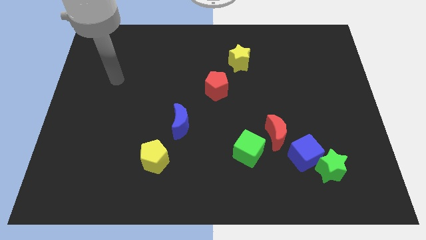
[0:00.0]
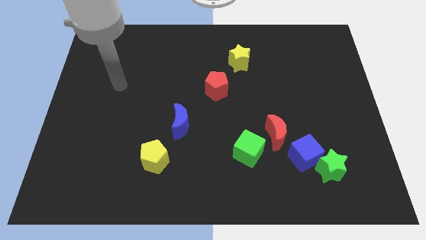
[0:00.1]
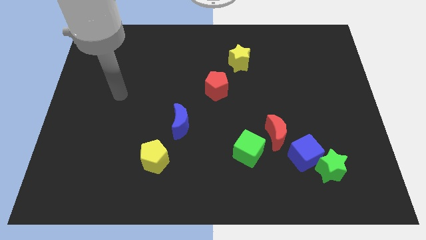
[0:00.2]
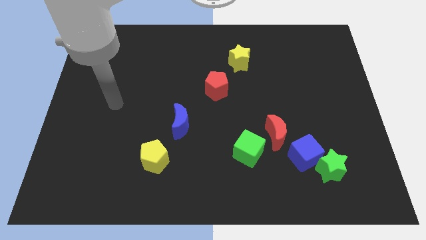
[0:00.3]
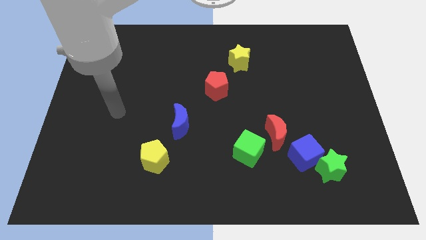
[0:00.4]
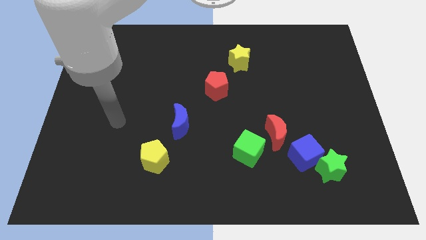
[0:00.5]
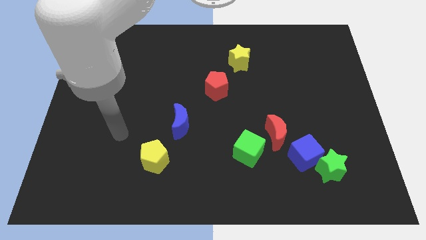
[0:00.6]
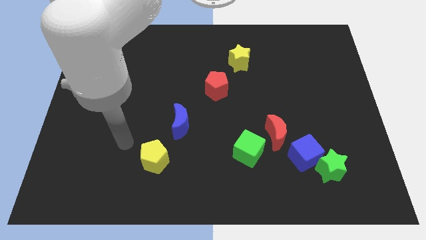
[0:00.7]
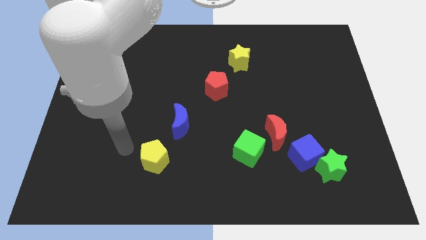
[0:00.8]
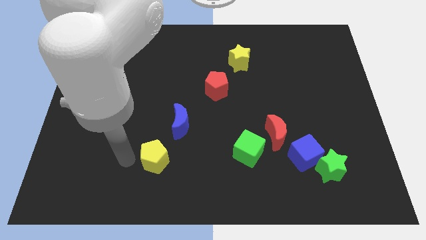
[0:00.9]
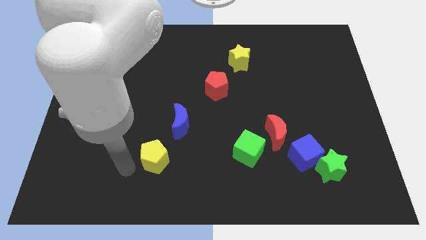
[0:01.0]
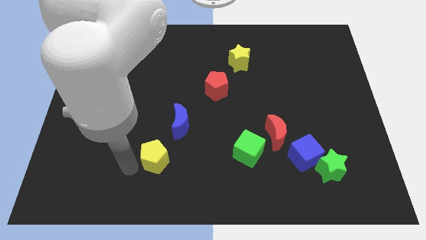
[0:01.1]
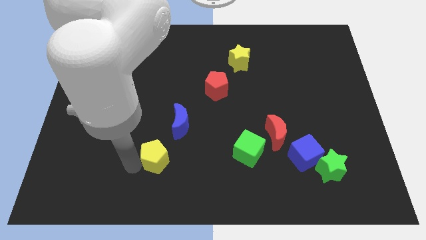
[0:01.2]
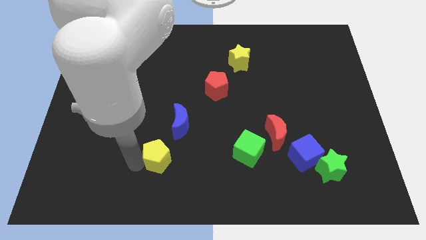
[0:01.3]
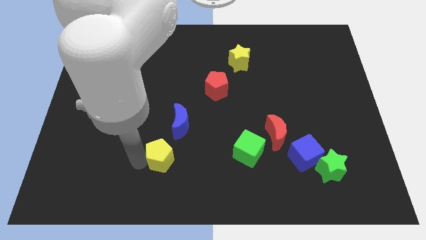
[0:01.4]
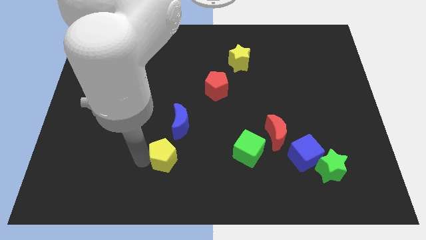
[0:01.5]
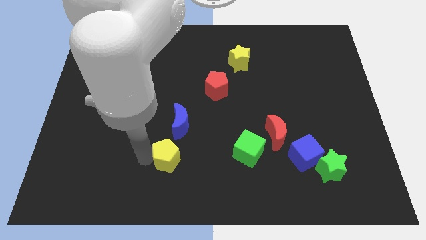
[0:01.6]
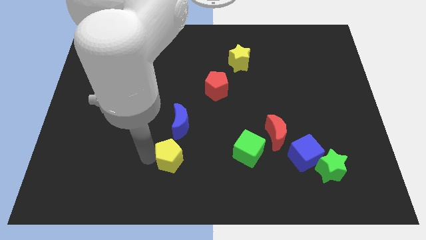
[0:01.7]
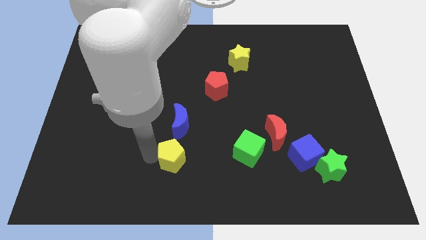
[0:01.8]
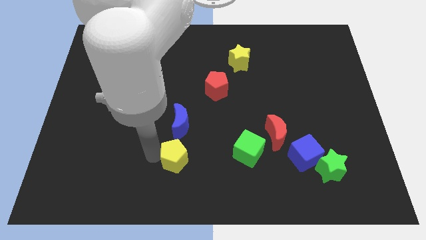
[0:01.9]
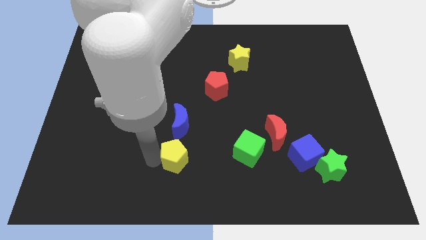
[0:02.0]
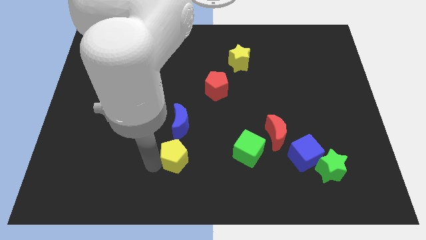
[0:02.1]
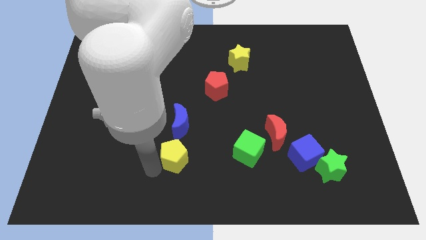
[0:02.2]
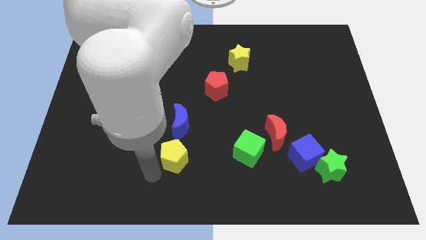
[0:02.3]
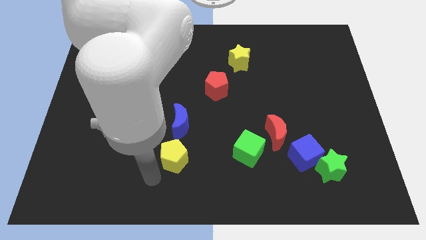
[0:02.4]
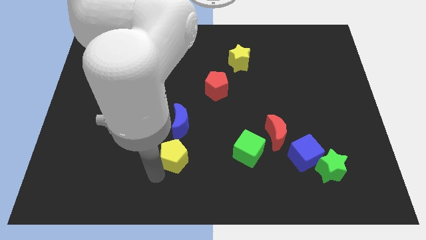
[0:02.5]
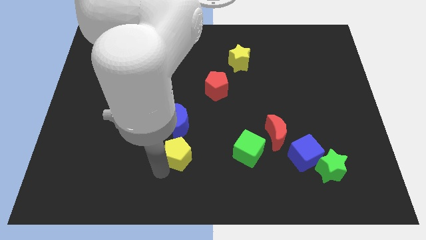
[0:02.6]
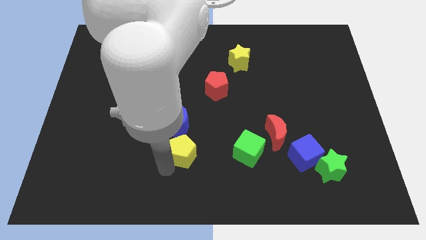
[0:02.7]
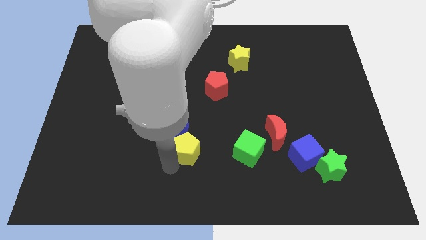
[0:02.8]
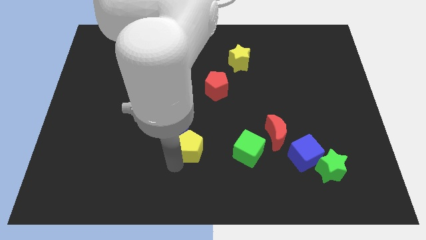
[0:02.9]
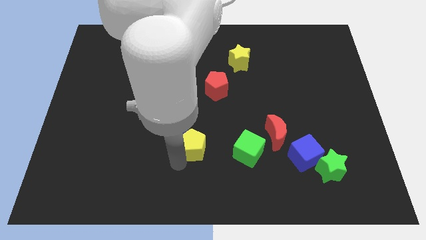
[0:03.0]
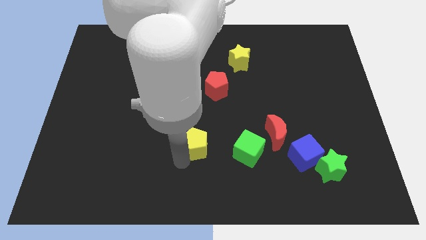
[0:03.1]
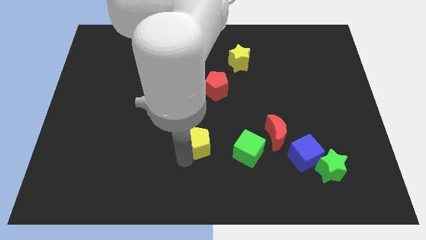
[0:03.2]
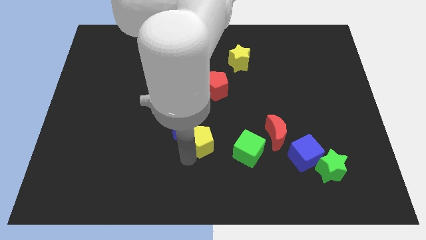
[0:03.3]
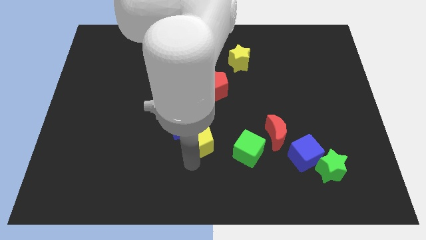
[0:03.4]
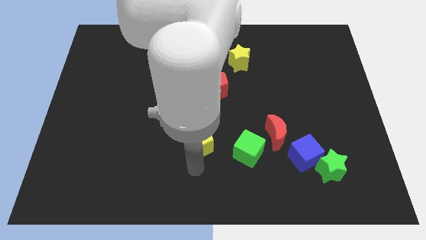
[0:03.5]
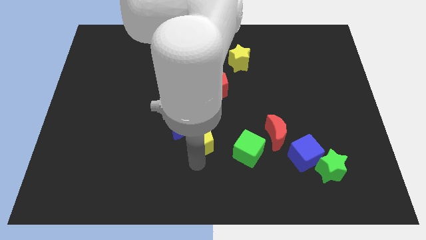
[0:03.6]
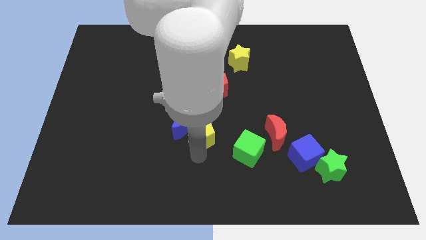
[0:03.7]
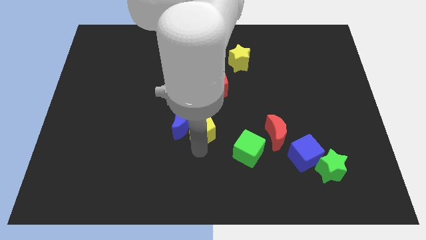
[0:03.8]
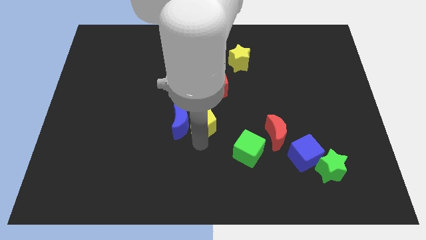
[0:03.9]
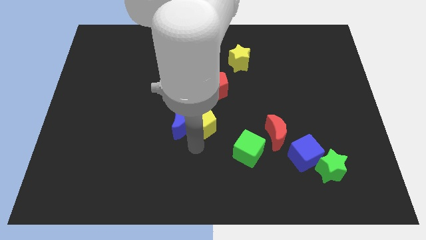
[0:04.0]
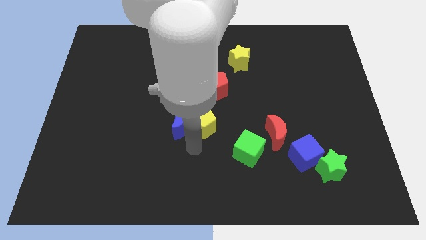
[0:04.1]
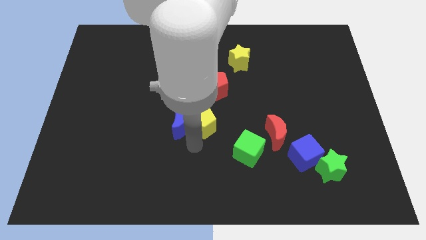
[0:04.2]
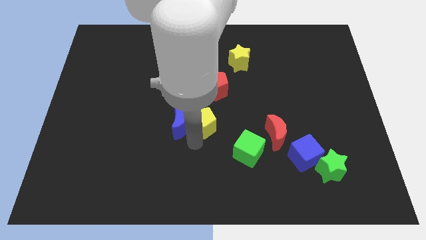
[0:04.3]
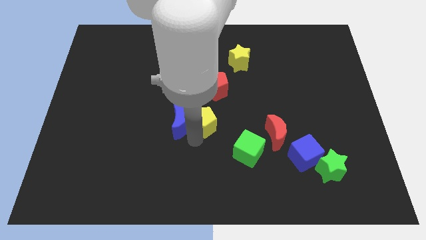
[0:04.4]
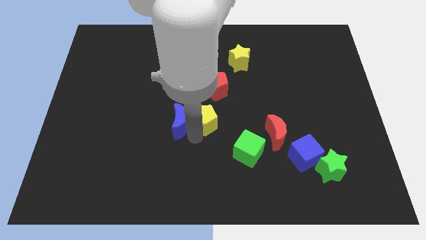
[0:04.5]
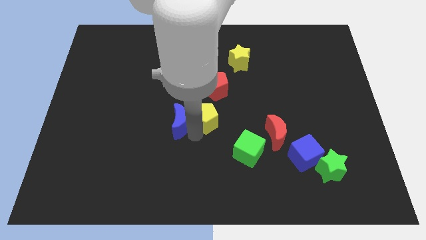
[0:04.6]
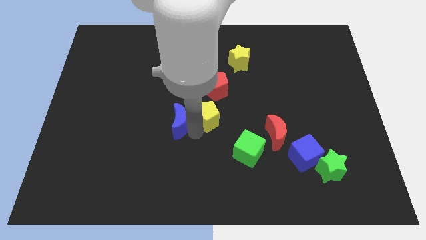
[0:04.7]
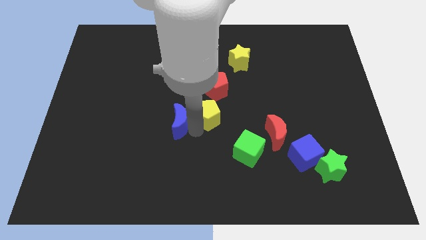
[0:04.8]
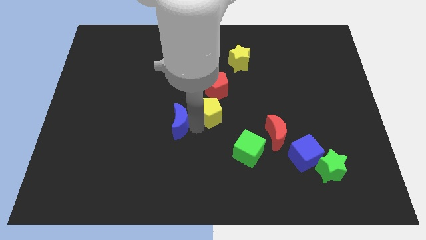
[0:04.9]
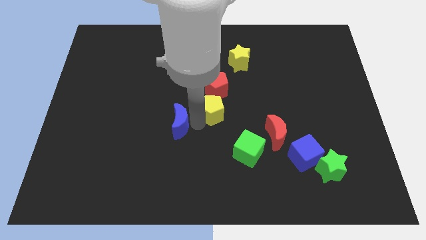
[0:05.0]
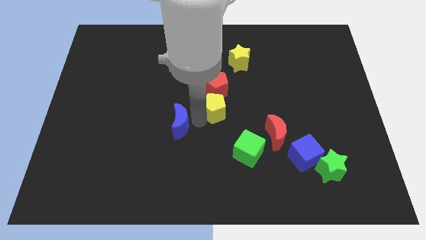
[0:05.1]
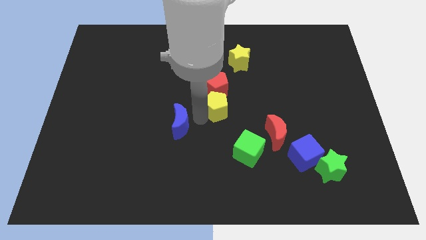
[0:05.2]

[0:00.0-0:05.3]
push the yellow pentagon next to the red pentagon

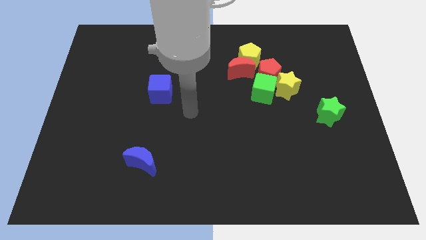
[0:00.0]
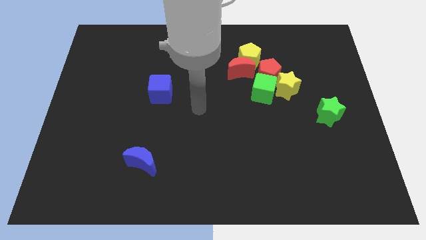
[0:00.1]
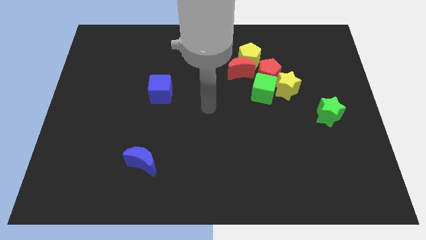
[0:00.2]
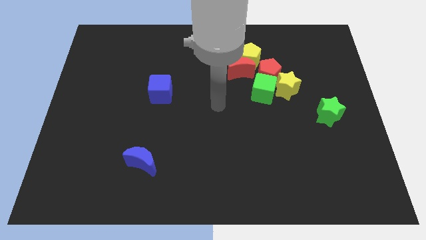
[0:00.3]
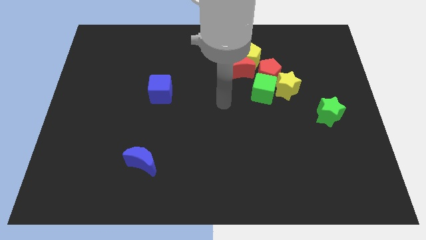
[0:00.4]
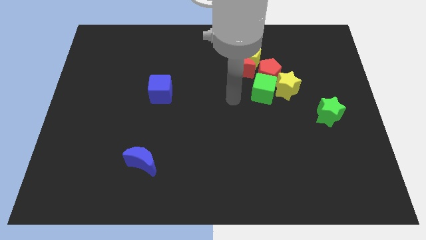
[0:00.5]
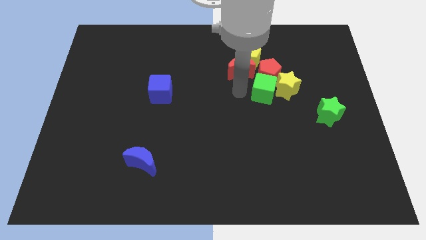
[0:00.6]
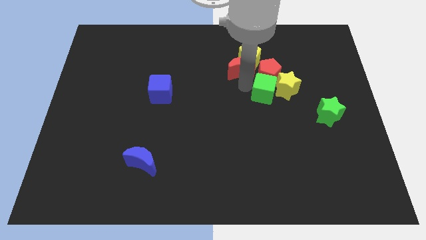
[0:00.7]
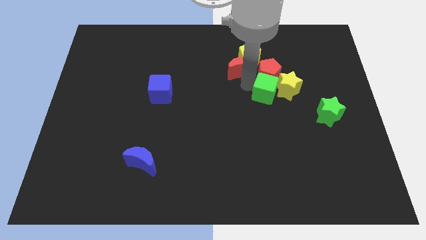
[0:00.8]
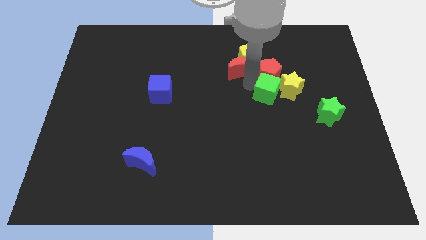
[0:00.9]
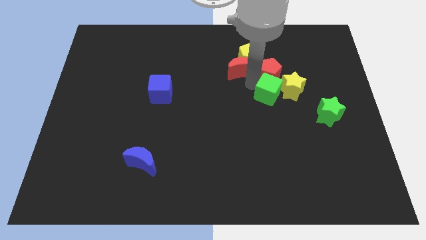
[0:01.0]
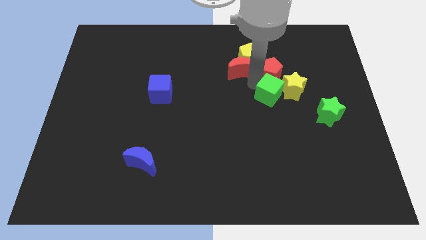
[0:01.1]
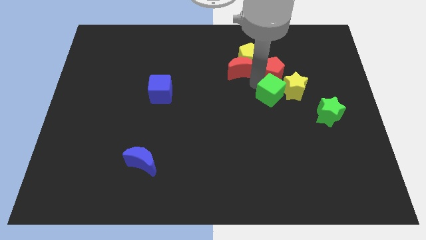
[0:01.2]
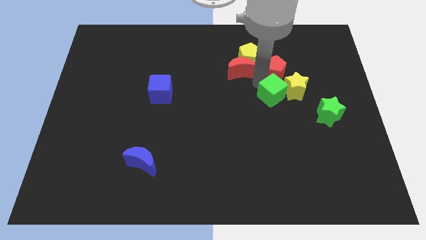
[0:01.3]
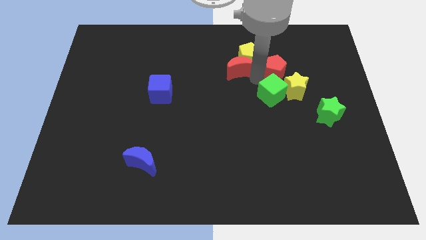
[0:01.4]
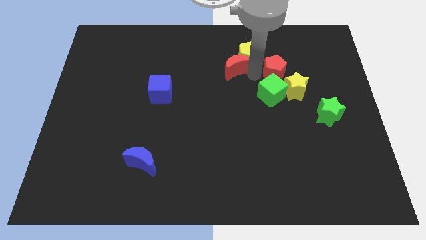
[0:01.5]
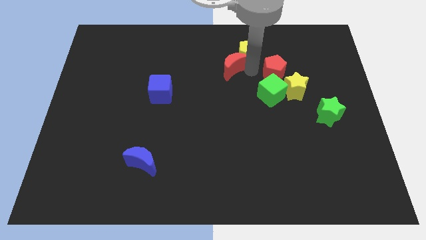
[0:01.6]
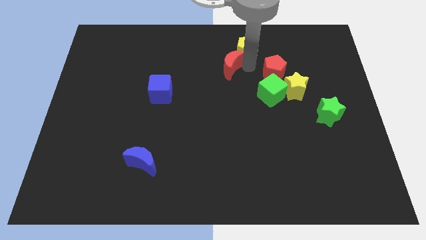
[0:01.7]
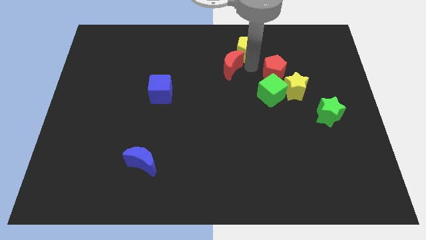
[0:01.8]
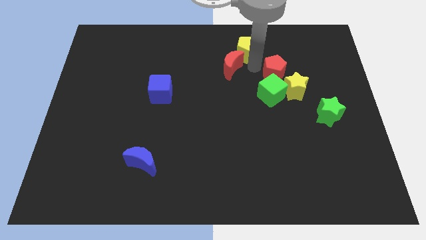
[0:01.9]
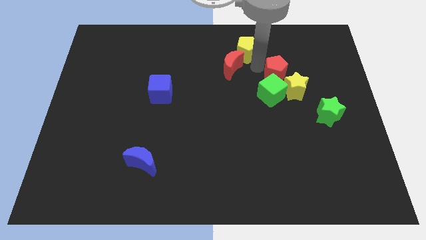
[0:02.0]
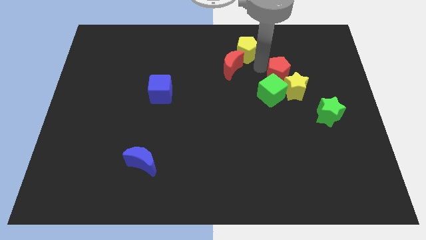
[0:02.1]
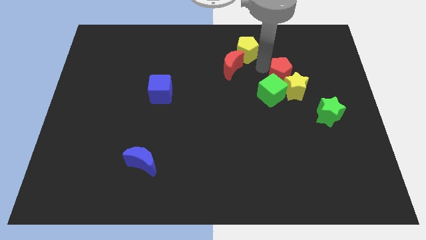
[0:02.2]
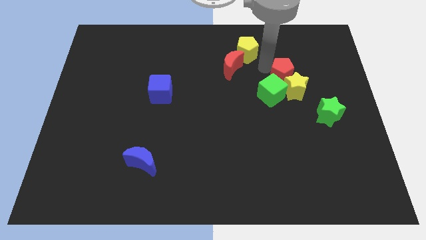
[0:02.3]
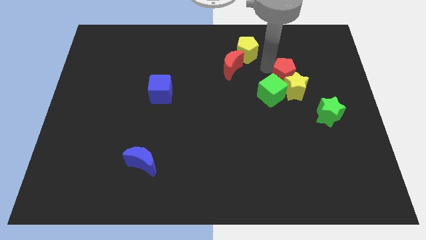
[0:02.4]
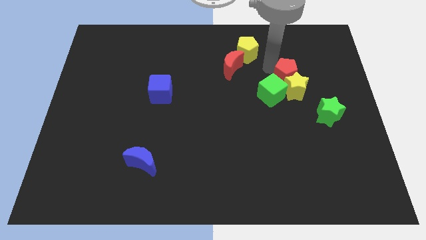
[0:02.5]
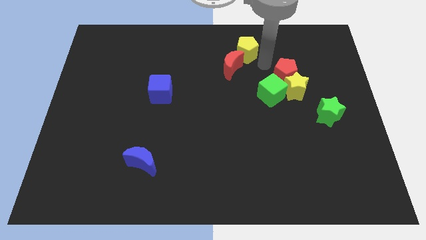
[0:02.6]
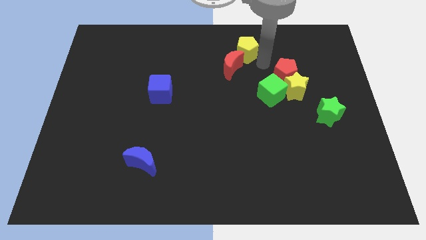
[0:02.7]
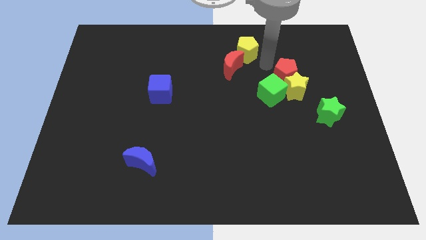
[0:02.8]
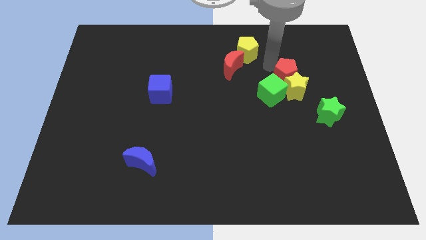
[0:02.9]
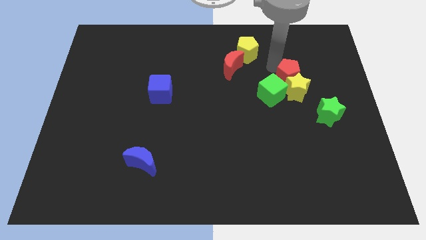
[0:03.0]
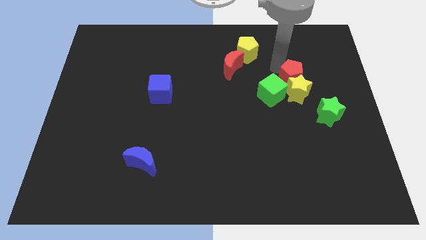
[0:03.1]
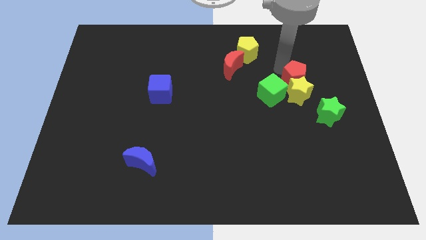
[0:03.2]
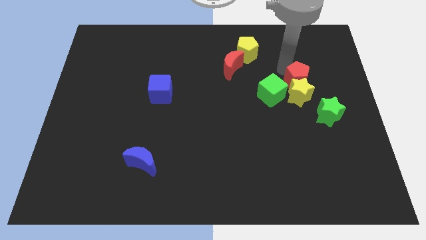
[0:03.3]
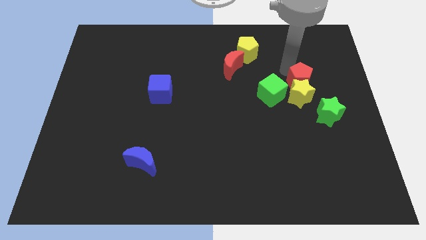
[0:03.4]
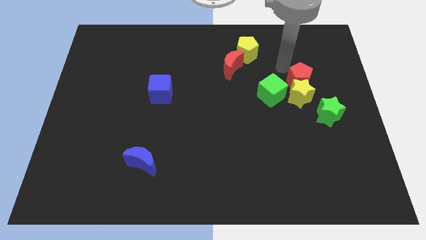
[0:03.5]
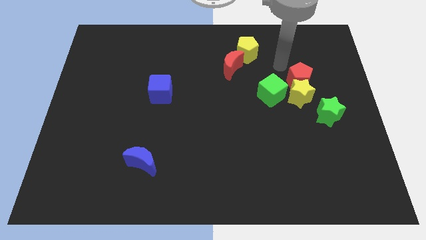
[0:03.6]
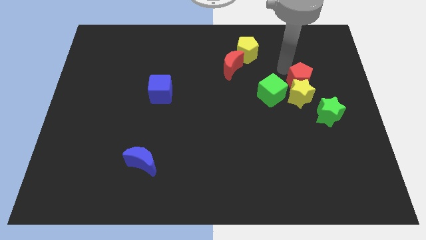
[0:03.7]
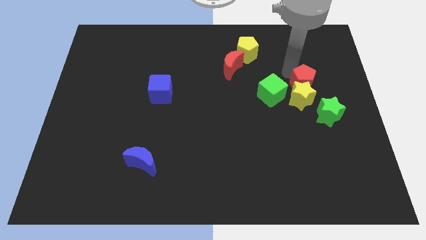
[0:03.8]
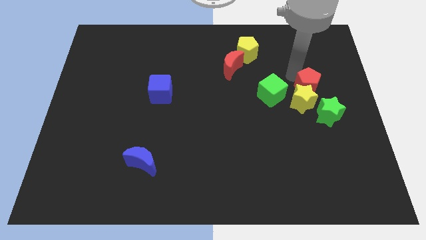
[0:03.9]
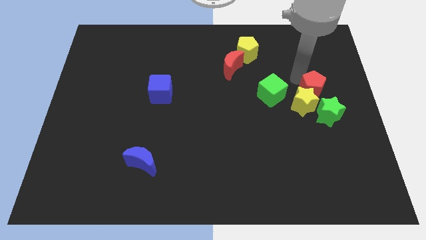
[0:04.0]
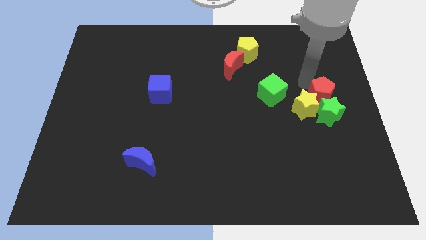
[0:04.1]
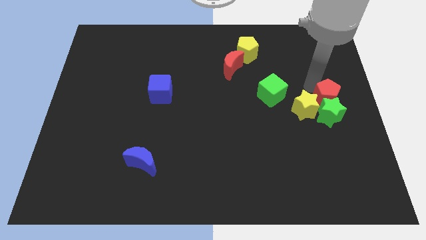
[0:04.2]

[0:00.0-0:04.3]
put the red pentagon close to the green star
